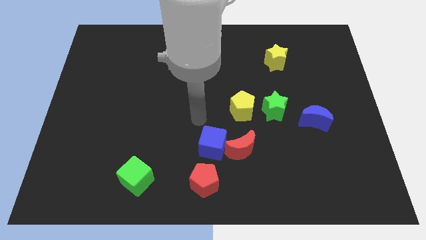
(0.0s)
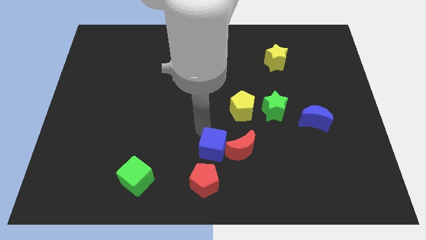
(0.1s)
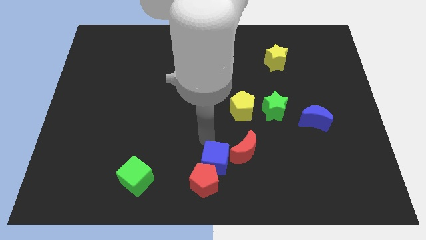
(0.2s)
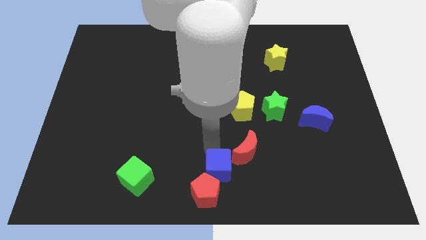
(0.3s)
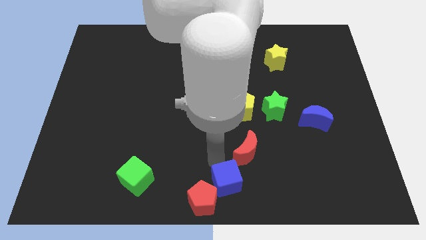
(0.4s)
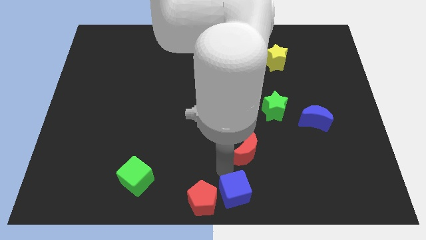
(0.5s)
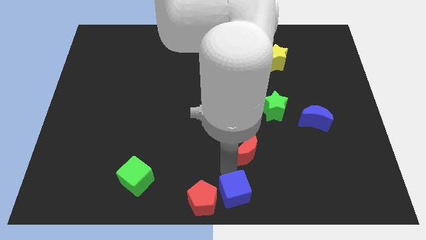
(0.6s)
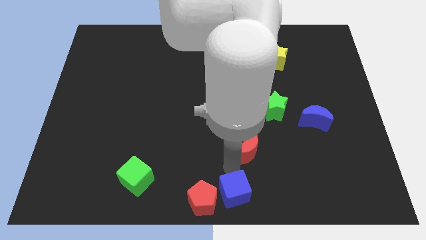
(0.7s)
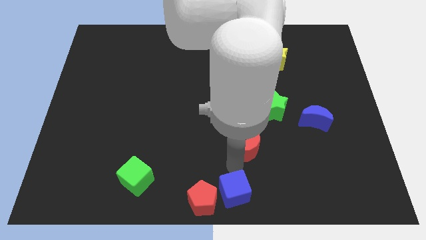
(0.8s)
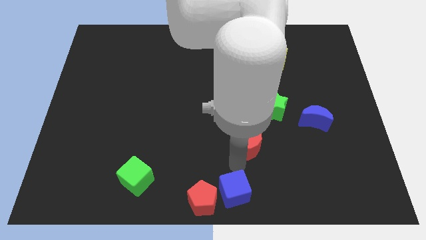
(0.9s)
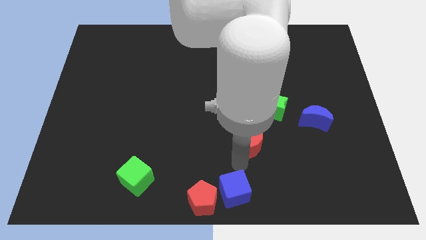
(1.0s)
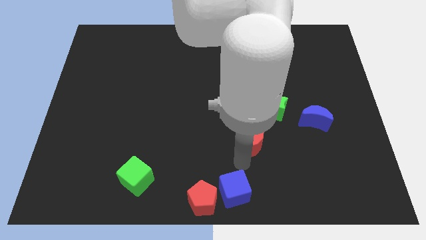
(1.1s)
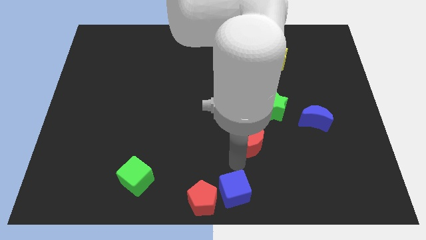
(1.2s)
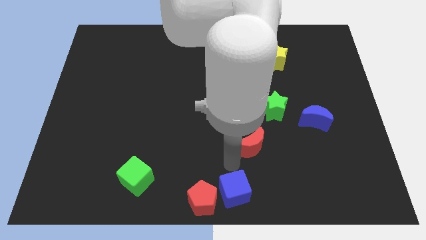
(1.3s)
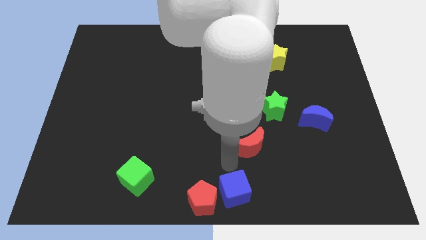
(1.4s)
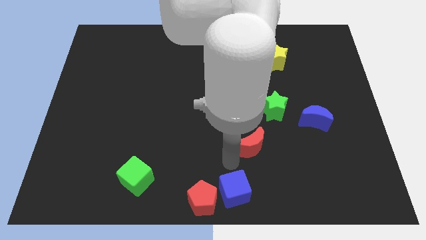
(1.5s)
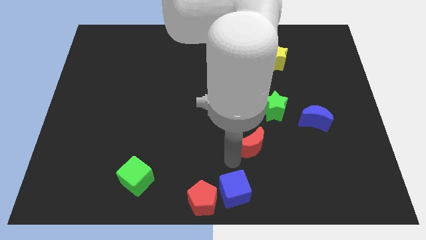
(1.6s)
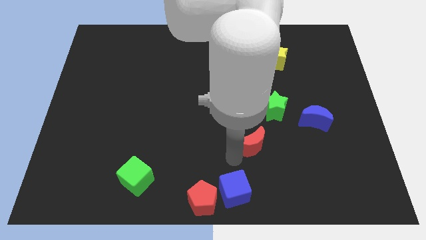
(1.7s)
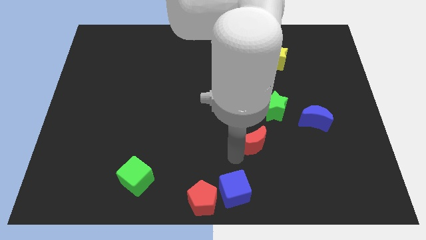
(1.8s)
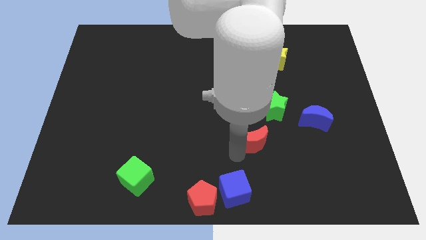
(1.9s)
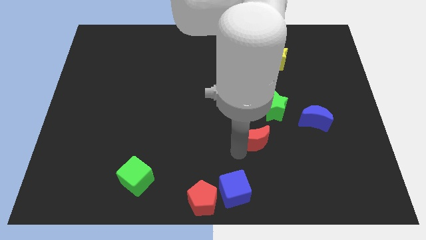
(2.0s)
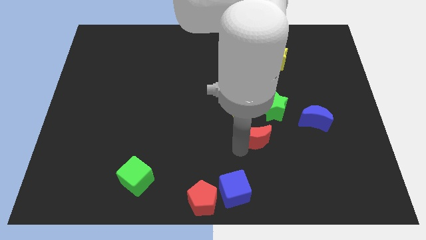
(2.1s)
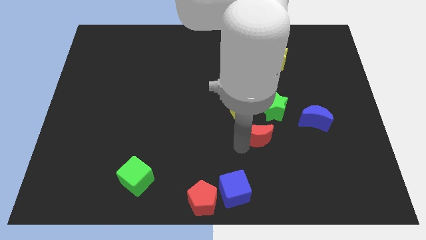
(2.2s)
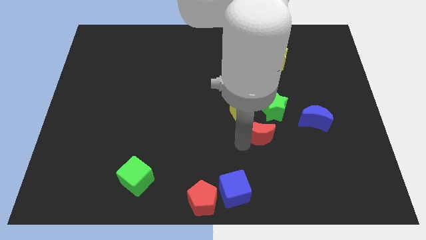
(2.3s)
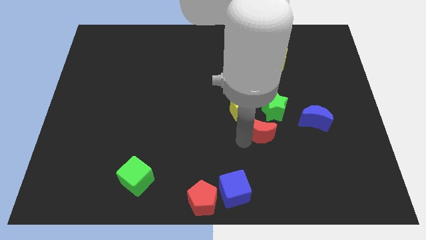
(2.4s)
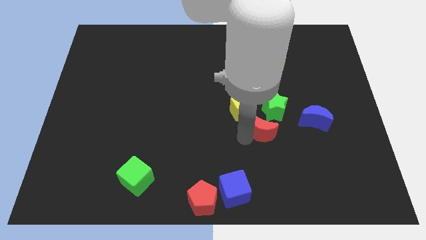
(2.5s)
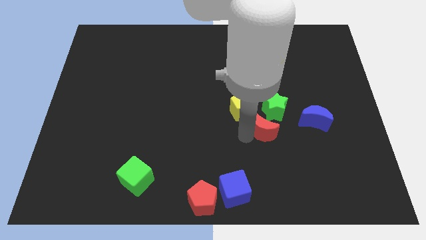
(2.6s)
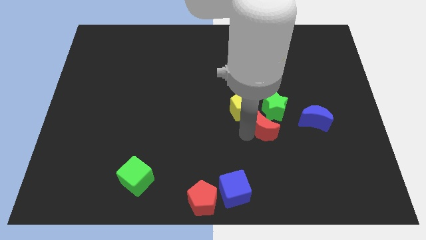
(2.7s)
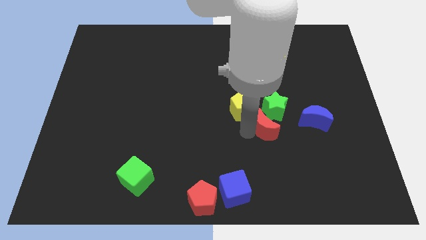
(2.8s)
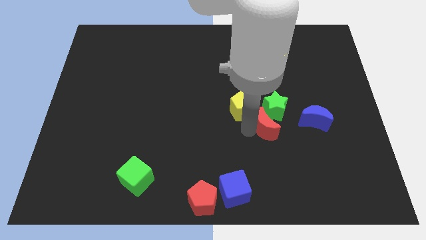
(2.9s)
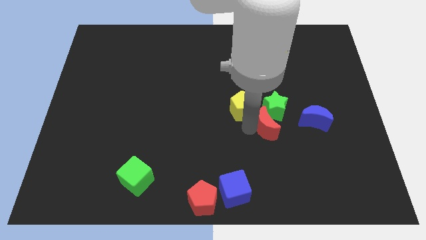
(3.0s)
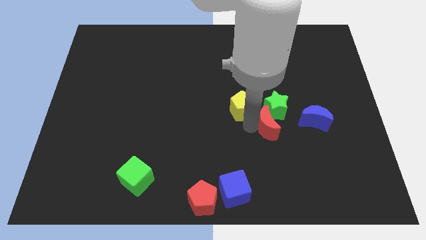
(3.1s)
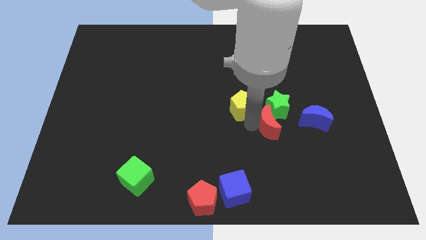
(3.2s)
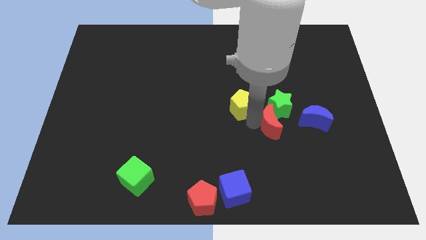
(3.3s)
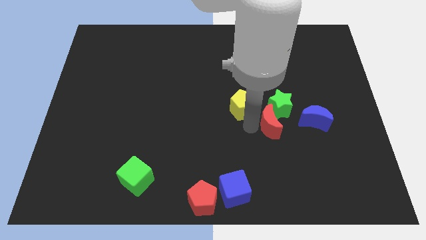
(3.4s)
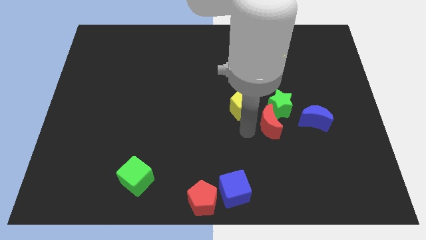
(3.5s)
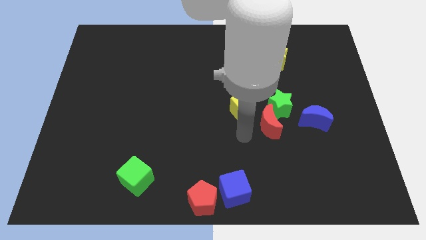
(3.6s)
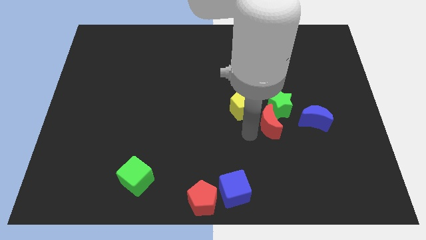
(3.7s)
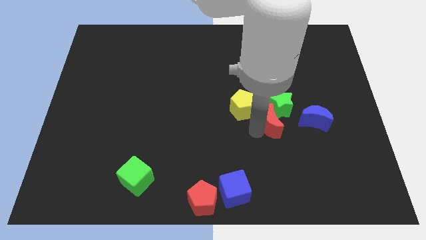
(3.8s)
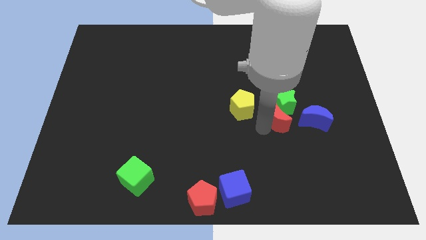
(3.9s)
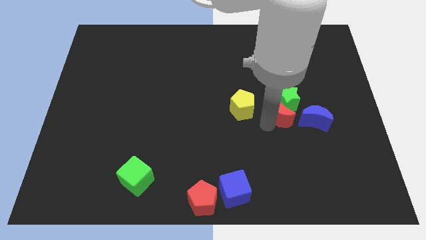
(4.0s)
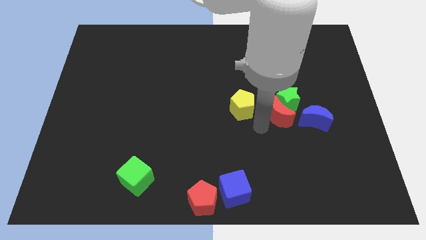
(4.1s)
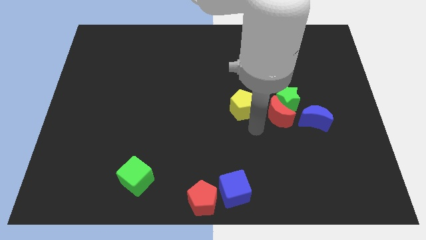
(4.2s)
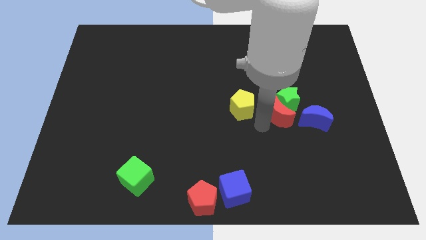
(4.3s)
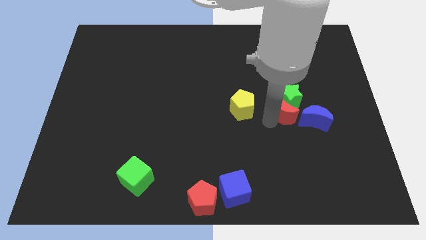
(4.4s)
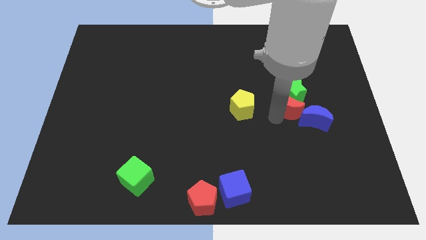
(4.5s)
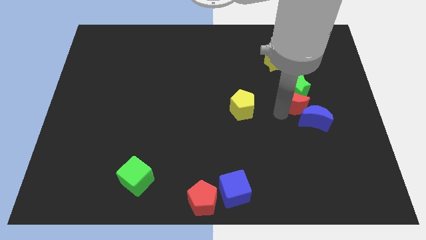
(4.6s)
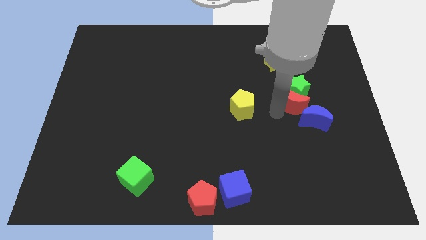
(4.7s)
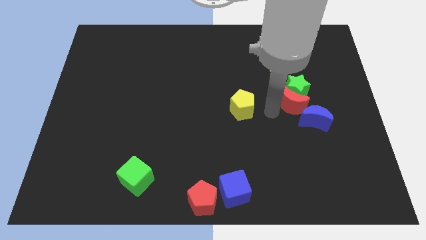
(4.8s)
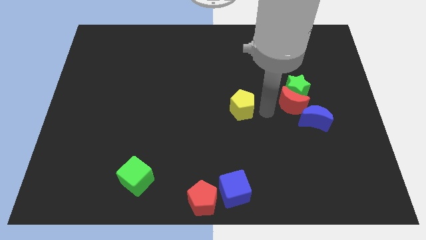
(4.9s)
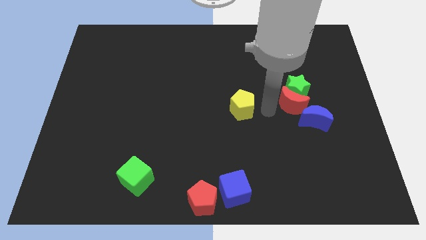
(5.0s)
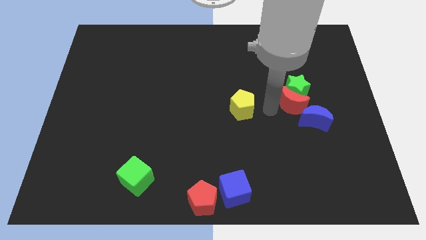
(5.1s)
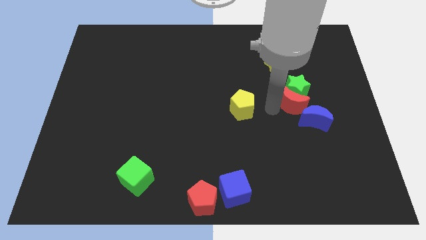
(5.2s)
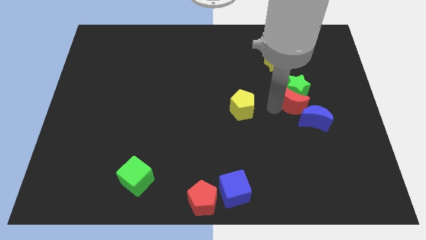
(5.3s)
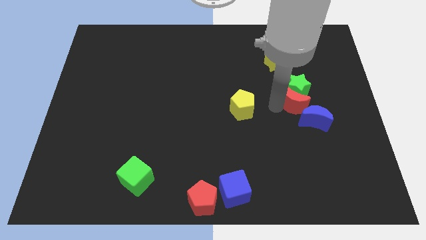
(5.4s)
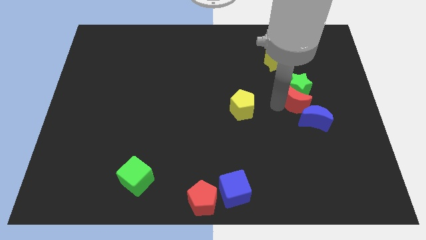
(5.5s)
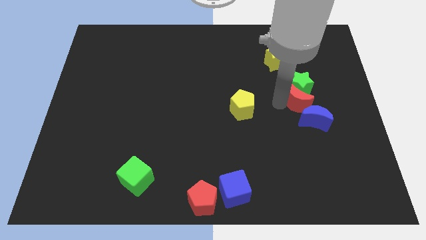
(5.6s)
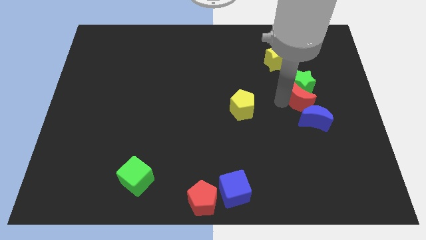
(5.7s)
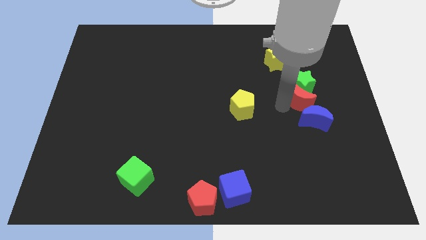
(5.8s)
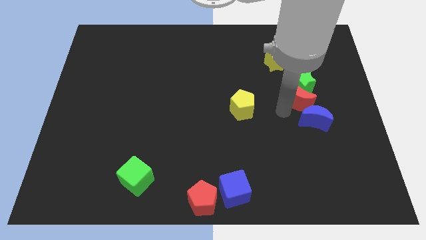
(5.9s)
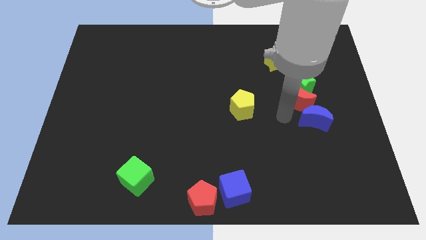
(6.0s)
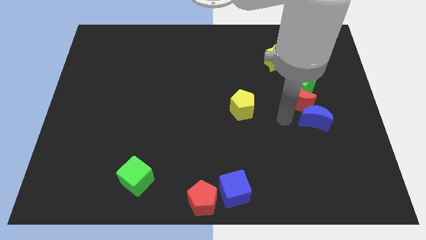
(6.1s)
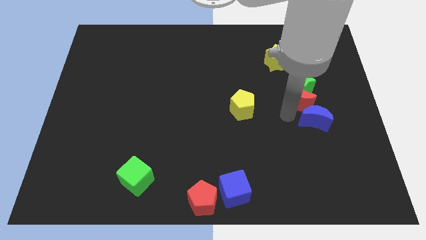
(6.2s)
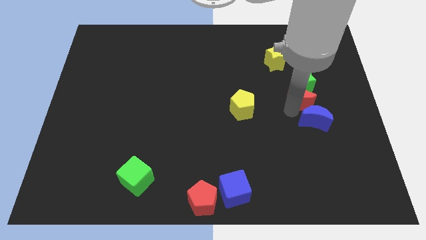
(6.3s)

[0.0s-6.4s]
push the red moon up and then to the right

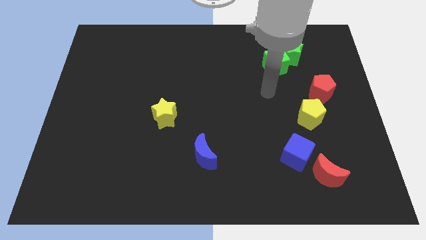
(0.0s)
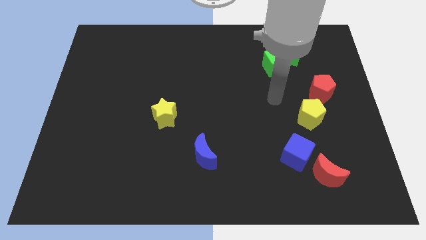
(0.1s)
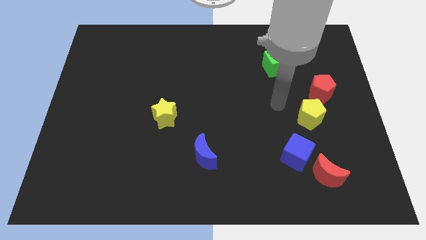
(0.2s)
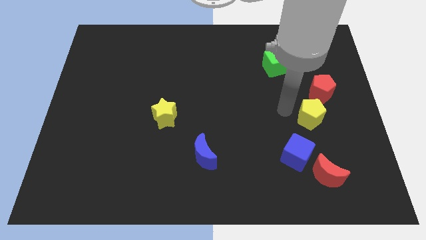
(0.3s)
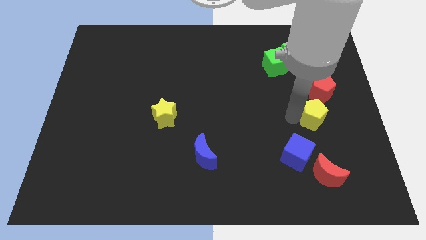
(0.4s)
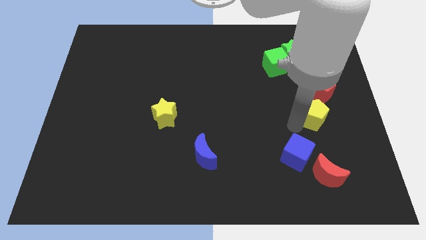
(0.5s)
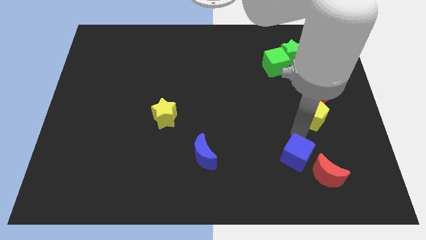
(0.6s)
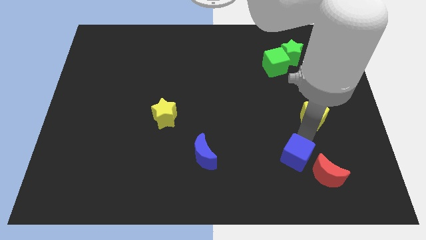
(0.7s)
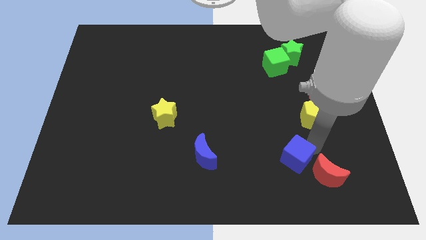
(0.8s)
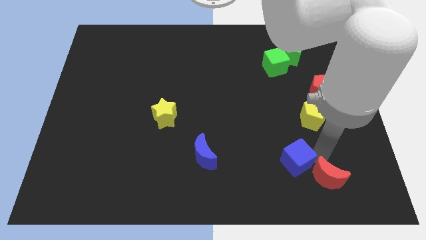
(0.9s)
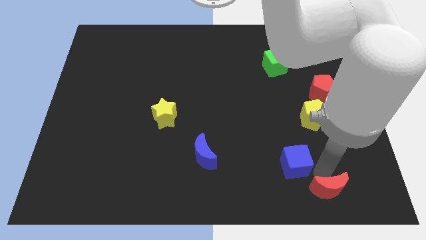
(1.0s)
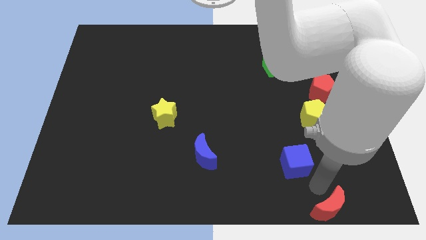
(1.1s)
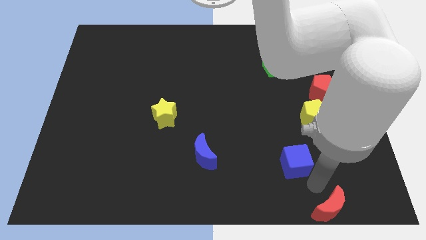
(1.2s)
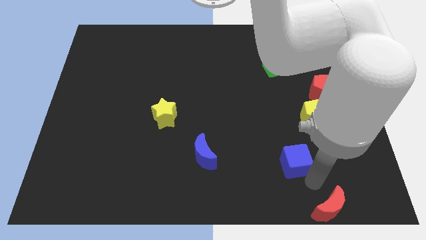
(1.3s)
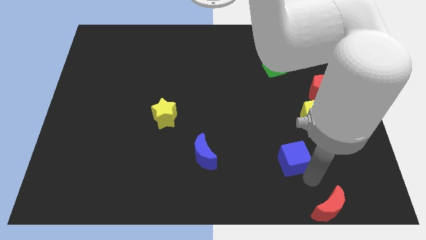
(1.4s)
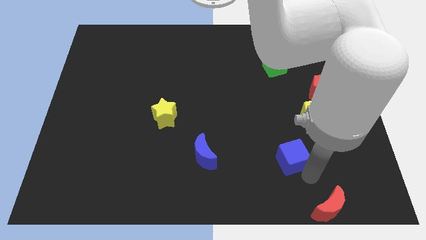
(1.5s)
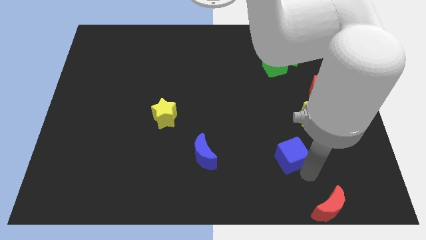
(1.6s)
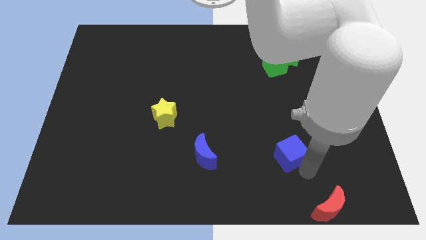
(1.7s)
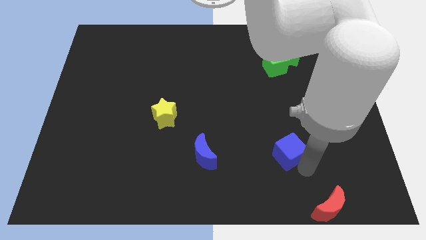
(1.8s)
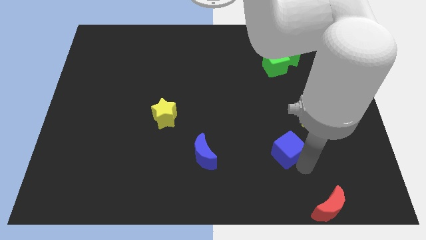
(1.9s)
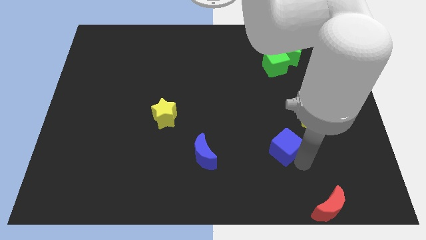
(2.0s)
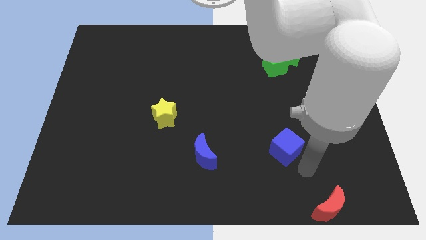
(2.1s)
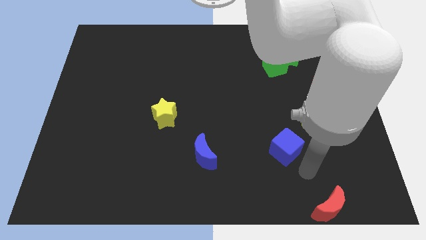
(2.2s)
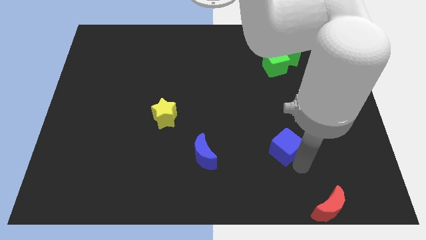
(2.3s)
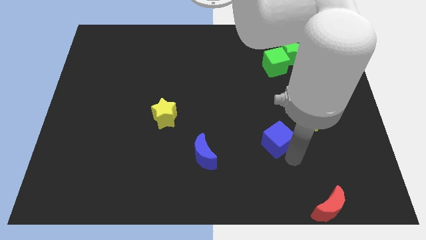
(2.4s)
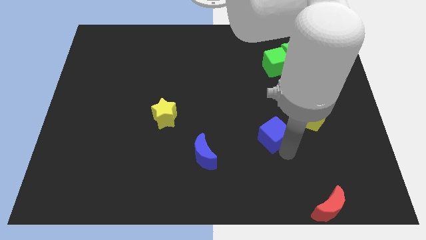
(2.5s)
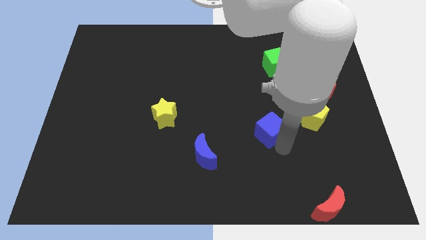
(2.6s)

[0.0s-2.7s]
slightly move the blue cube up and to the left
